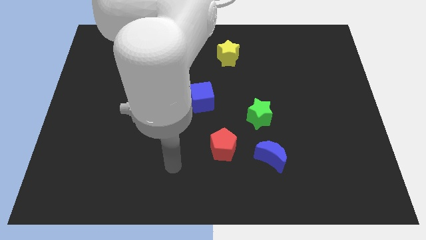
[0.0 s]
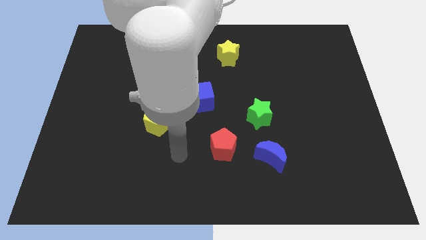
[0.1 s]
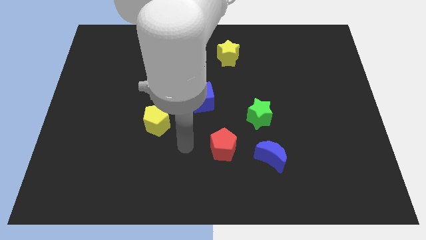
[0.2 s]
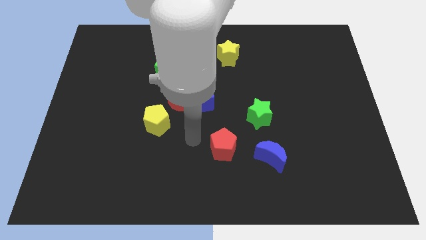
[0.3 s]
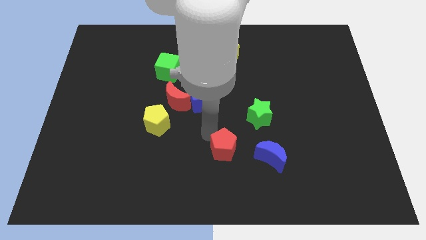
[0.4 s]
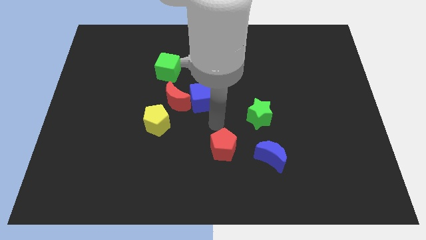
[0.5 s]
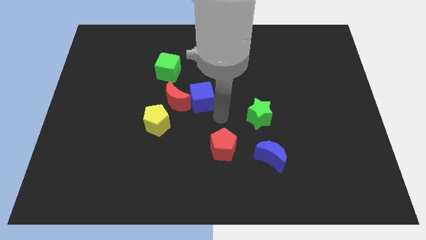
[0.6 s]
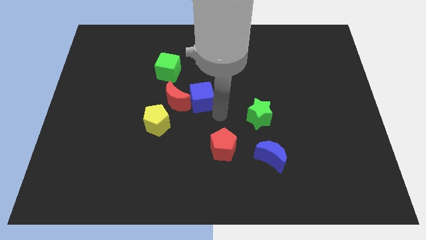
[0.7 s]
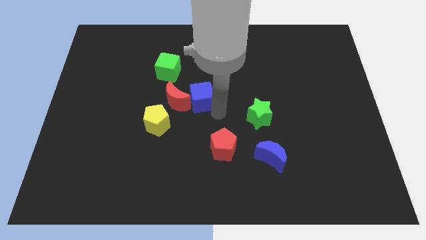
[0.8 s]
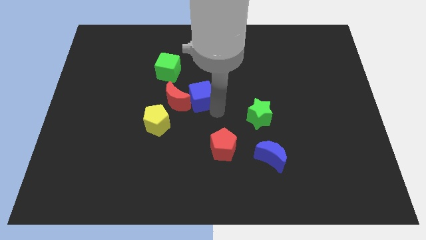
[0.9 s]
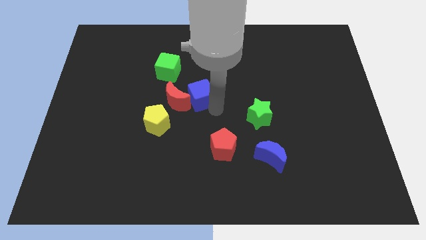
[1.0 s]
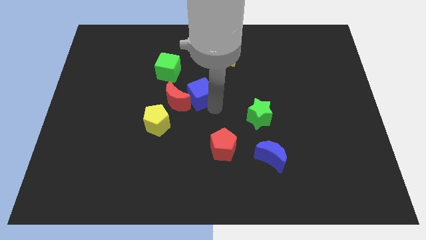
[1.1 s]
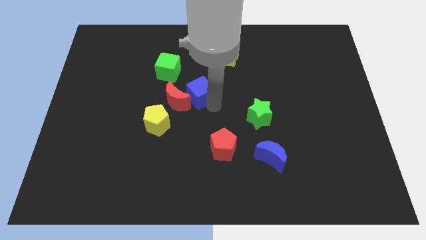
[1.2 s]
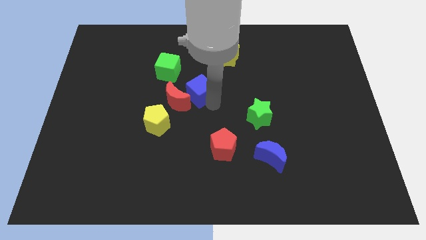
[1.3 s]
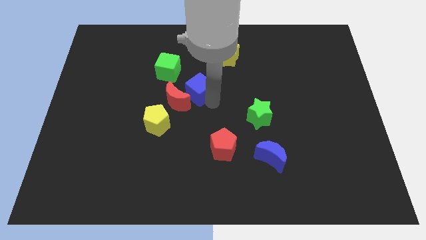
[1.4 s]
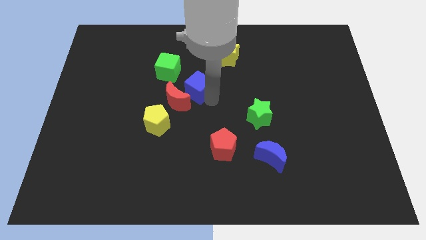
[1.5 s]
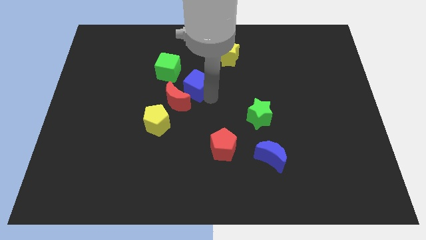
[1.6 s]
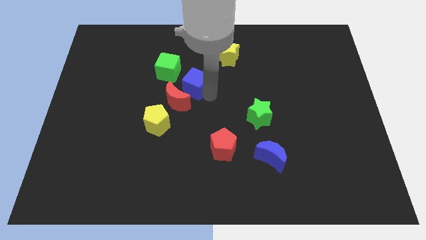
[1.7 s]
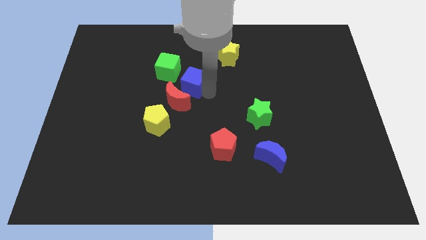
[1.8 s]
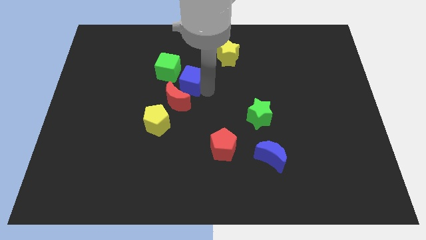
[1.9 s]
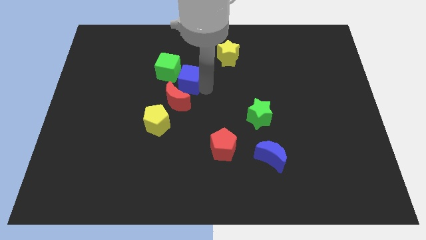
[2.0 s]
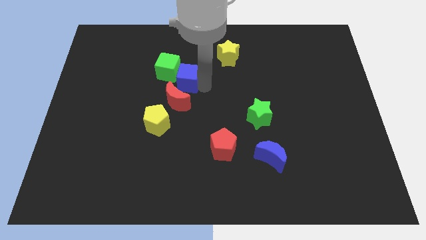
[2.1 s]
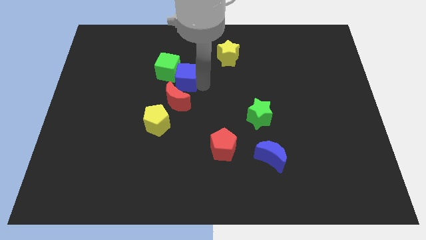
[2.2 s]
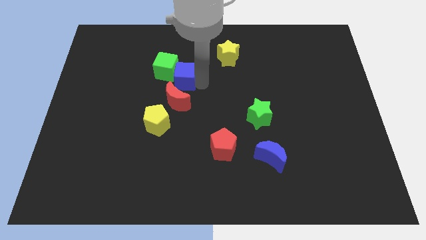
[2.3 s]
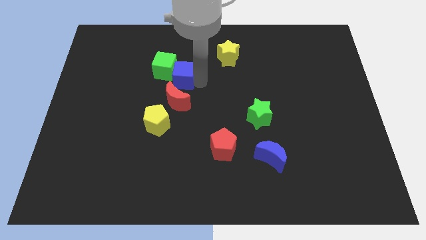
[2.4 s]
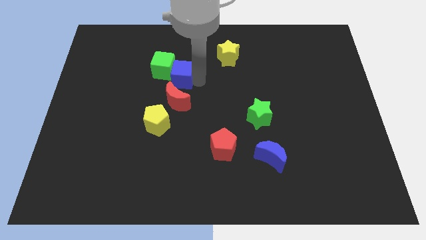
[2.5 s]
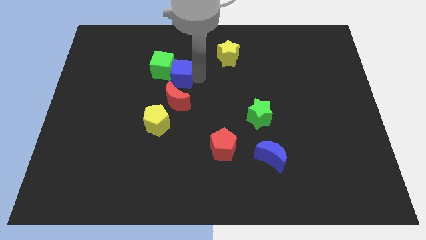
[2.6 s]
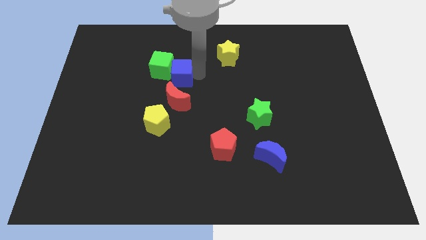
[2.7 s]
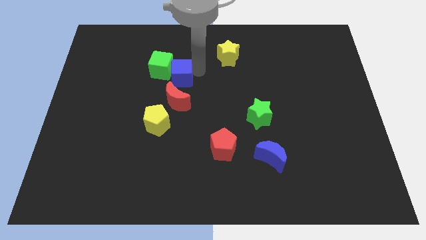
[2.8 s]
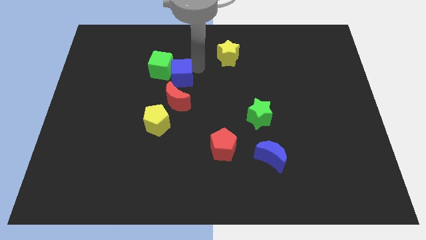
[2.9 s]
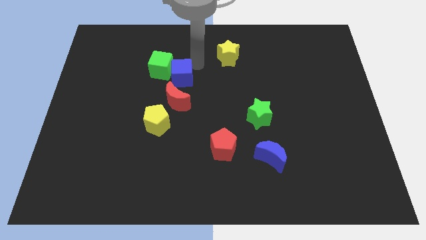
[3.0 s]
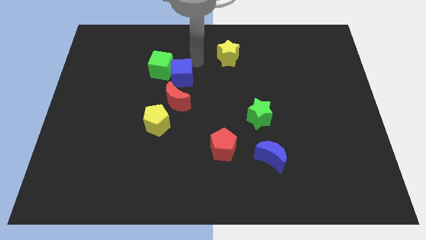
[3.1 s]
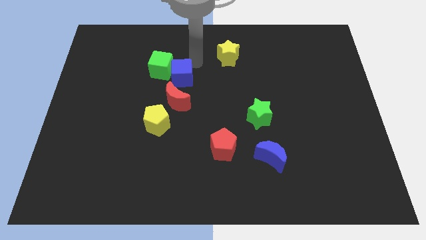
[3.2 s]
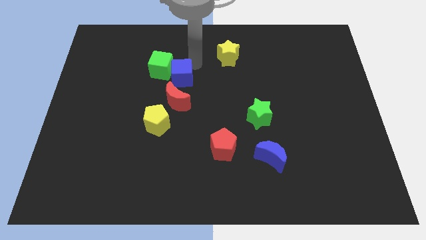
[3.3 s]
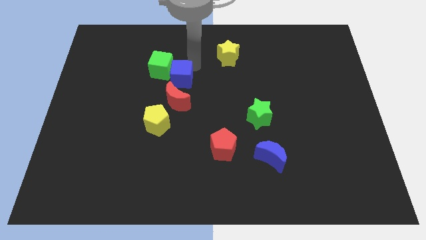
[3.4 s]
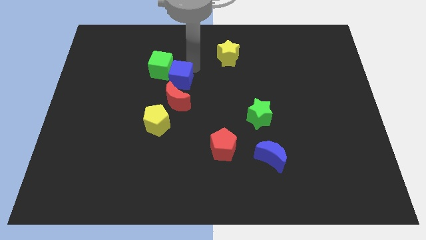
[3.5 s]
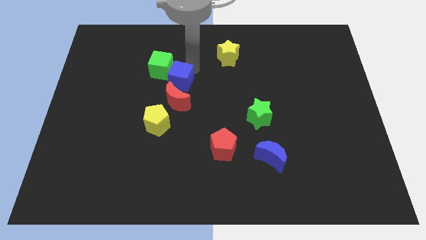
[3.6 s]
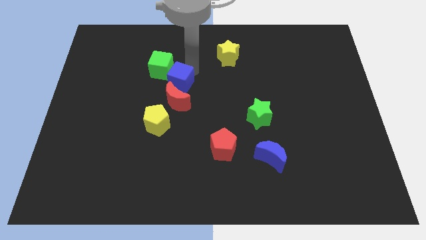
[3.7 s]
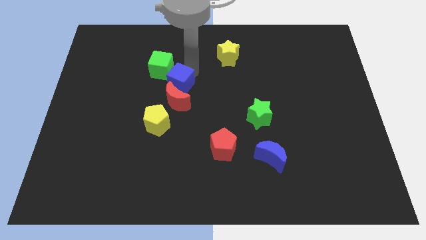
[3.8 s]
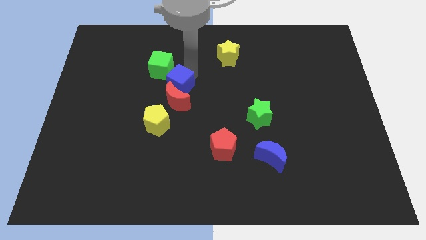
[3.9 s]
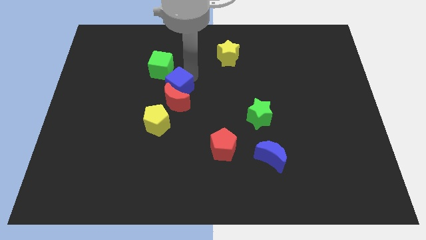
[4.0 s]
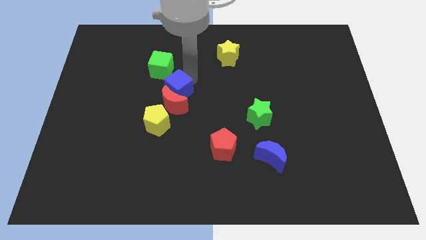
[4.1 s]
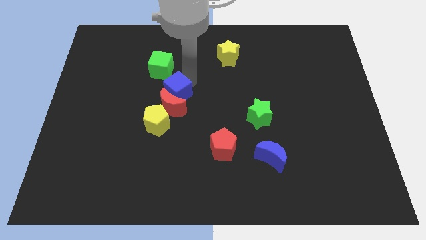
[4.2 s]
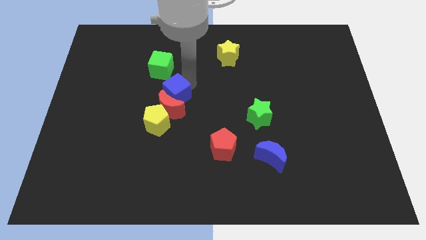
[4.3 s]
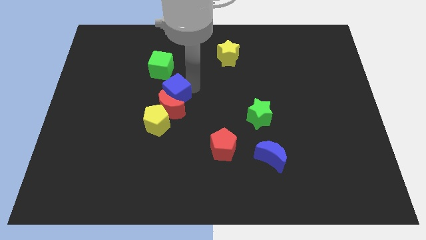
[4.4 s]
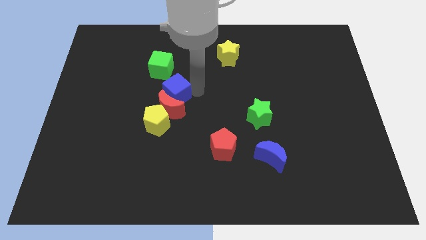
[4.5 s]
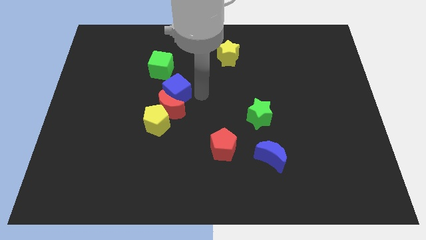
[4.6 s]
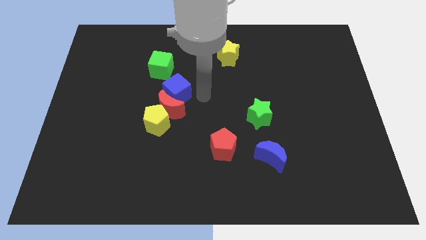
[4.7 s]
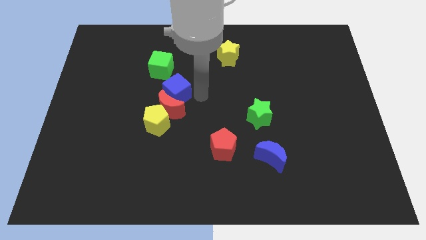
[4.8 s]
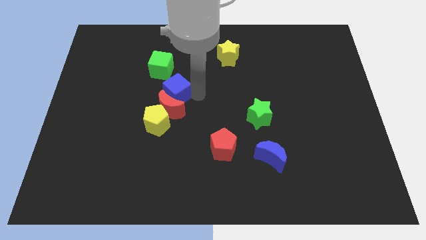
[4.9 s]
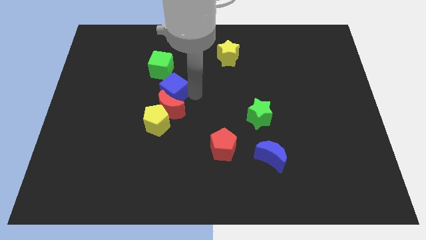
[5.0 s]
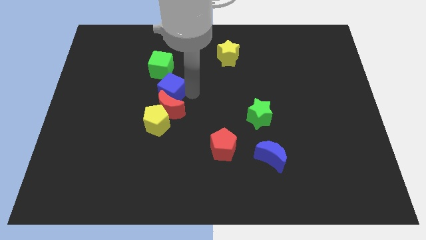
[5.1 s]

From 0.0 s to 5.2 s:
slightly push the blue cube to the left

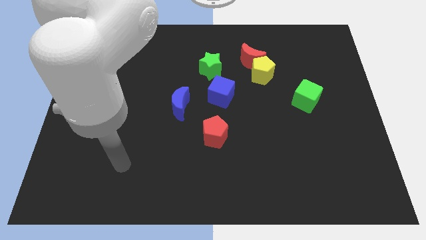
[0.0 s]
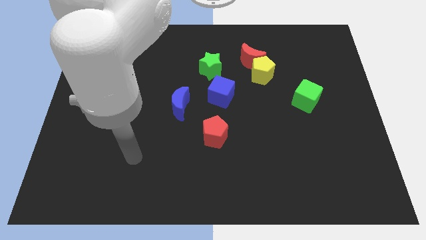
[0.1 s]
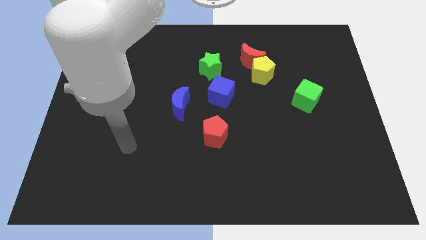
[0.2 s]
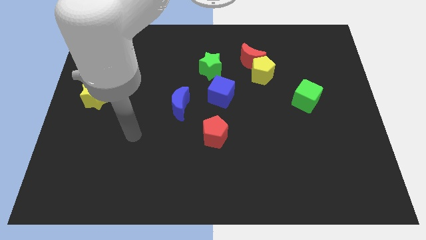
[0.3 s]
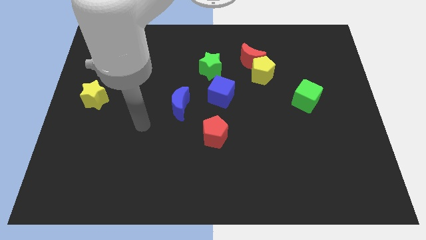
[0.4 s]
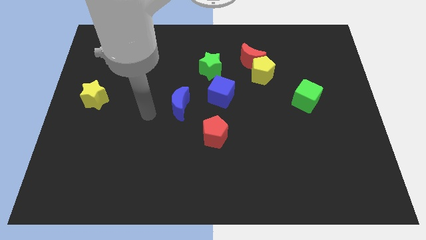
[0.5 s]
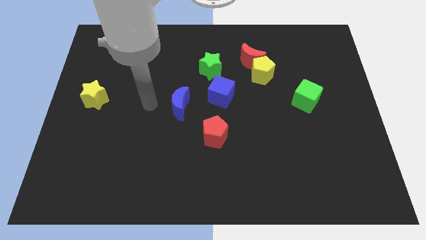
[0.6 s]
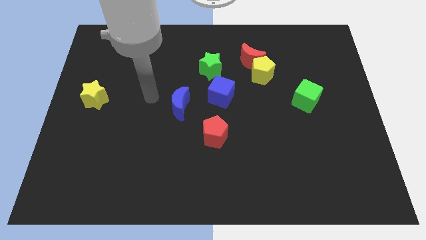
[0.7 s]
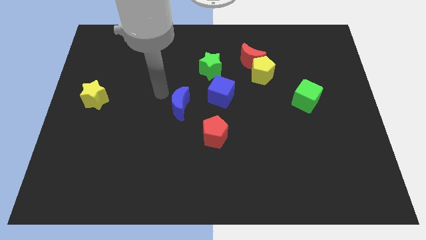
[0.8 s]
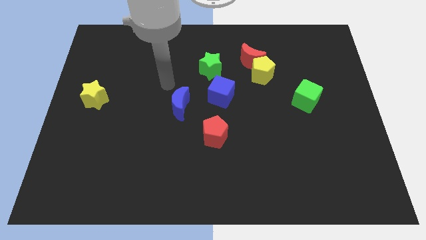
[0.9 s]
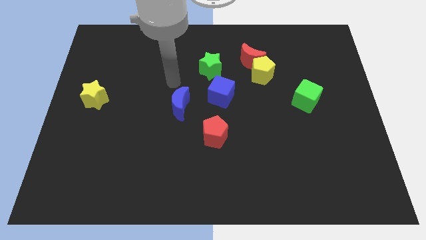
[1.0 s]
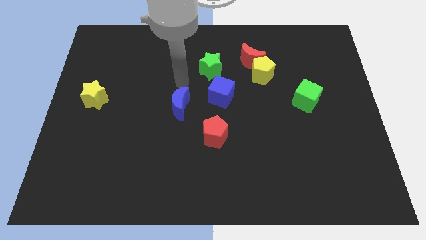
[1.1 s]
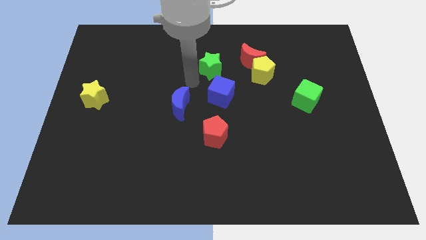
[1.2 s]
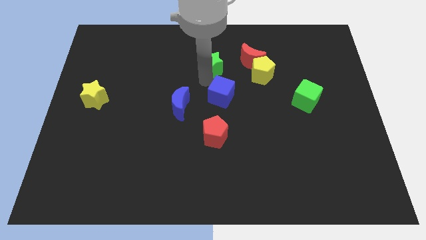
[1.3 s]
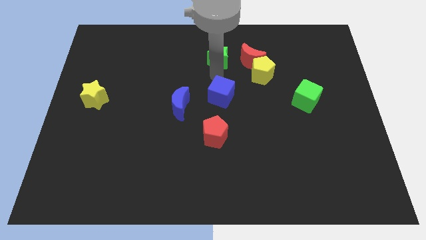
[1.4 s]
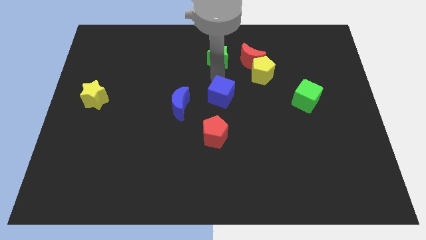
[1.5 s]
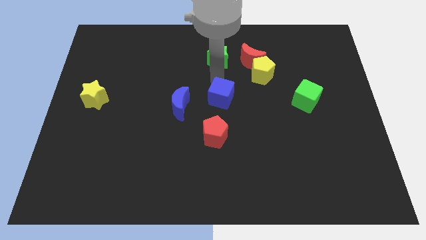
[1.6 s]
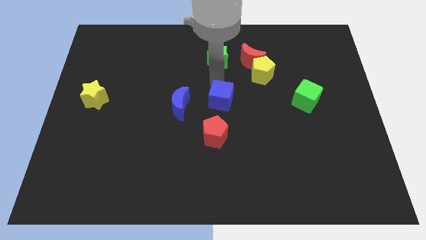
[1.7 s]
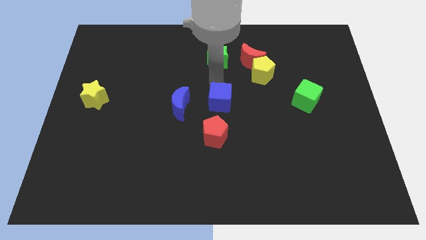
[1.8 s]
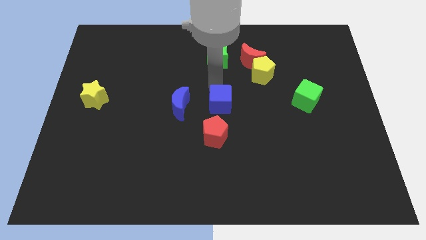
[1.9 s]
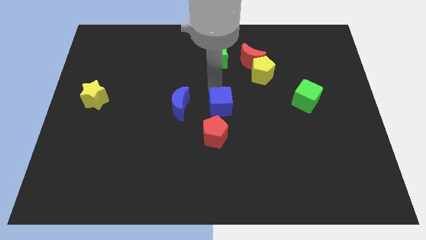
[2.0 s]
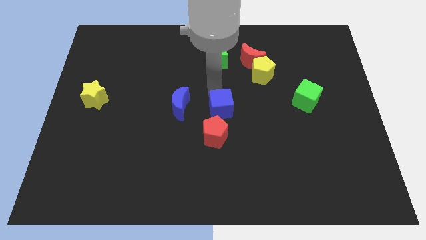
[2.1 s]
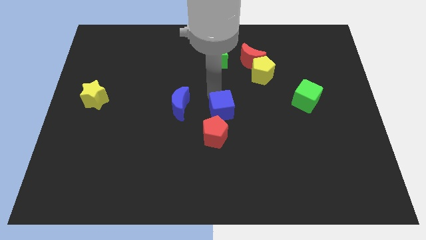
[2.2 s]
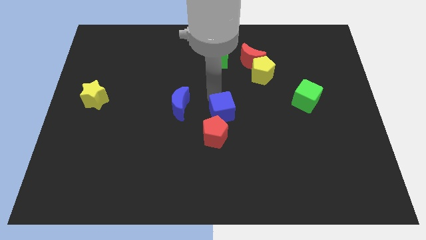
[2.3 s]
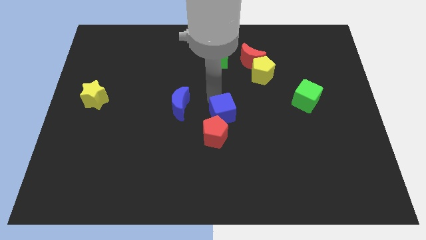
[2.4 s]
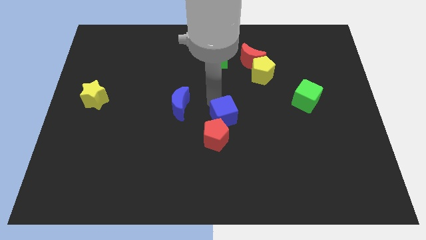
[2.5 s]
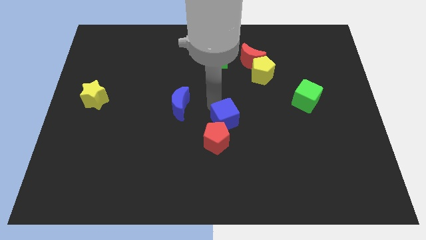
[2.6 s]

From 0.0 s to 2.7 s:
move the blue cube somewhat down

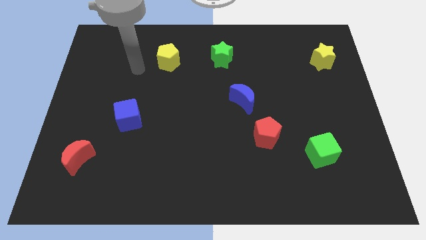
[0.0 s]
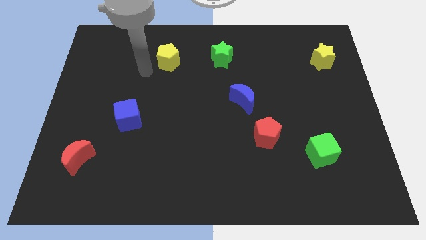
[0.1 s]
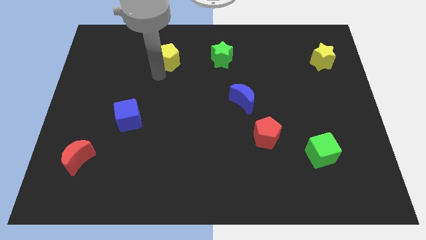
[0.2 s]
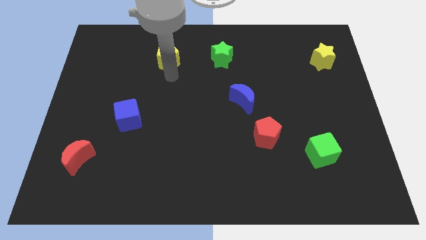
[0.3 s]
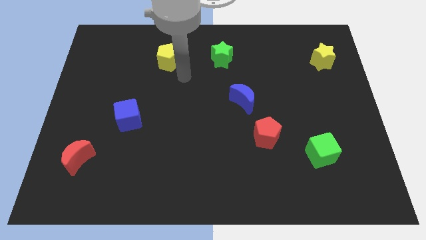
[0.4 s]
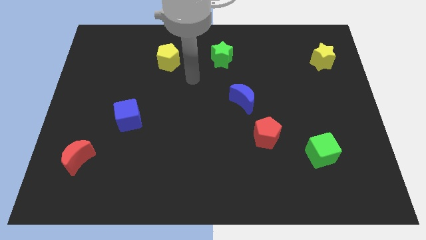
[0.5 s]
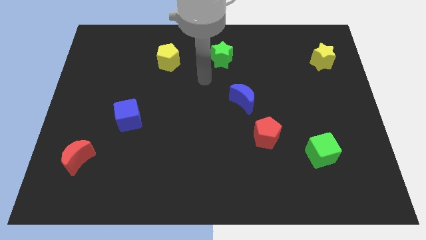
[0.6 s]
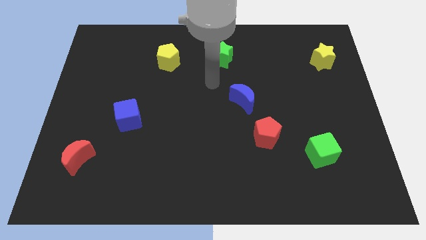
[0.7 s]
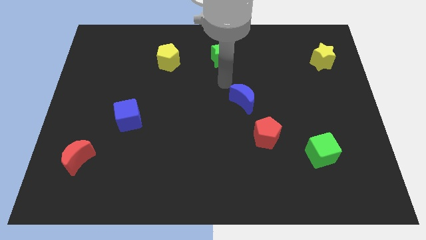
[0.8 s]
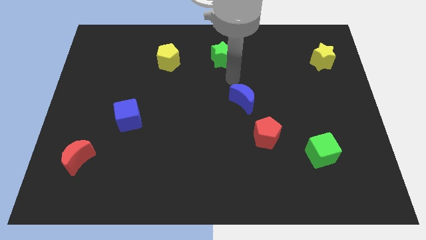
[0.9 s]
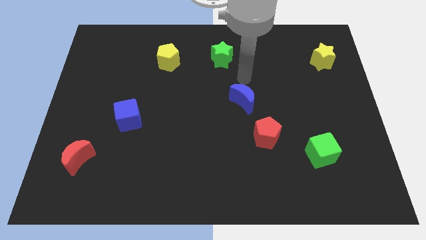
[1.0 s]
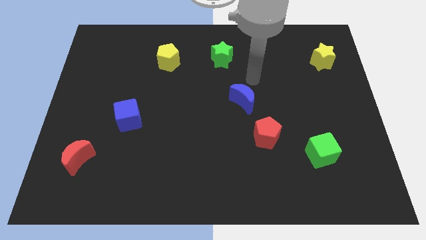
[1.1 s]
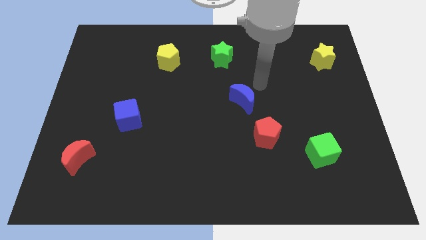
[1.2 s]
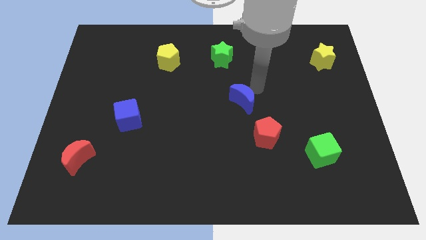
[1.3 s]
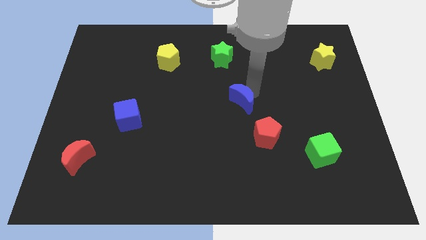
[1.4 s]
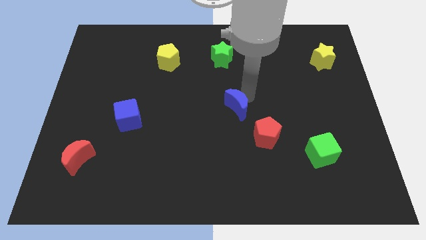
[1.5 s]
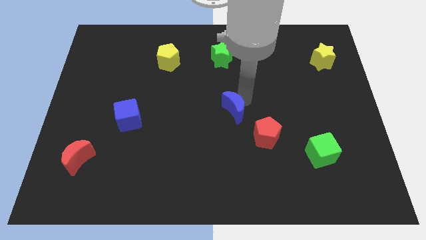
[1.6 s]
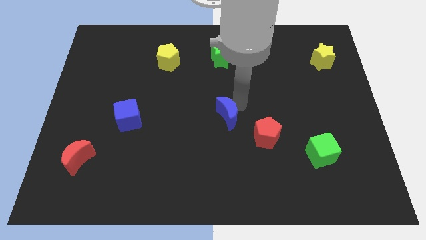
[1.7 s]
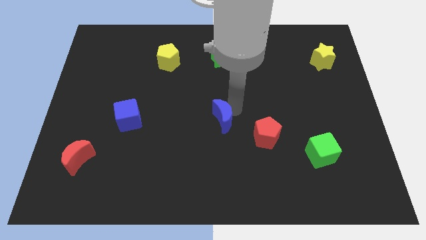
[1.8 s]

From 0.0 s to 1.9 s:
push the blue moon a little downwards and left
